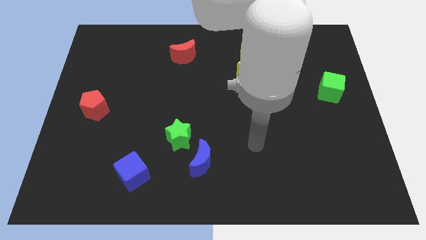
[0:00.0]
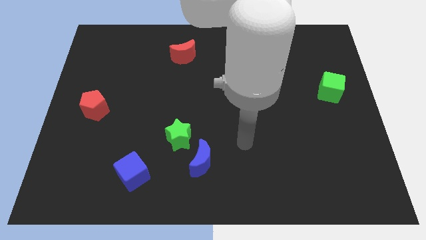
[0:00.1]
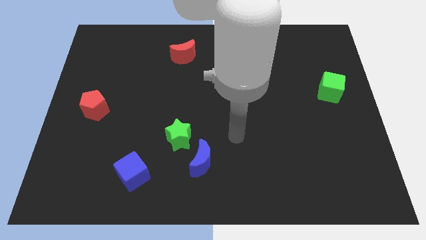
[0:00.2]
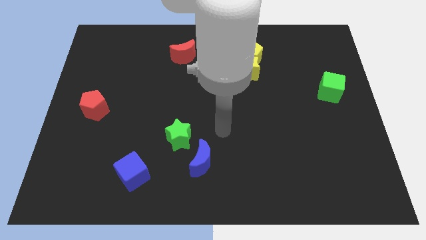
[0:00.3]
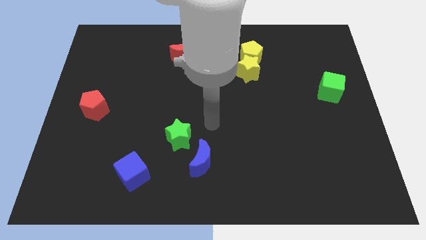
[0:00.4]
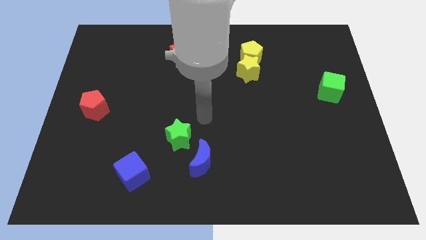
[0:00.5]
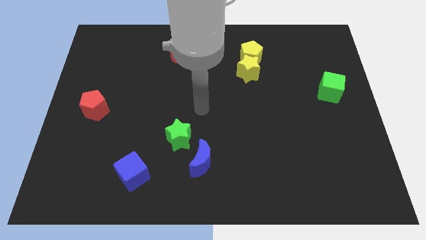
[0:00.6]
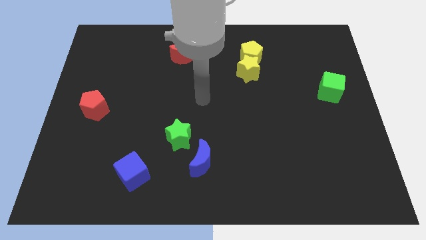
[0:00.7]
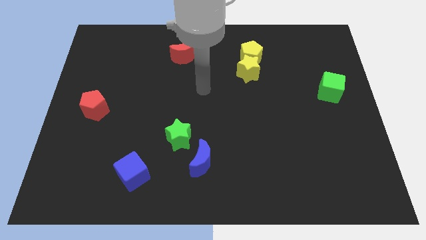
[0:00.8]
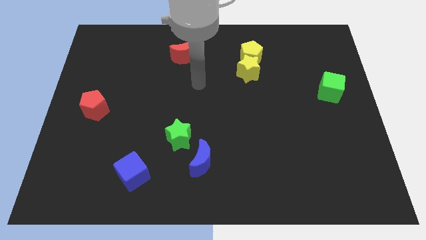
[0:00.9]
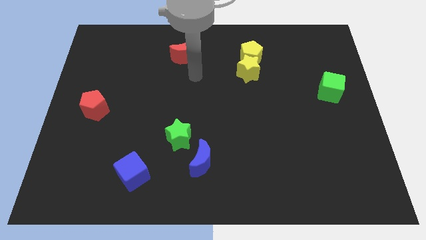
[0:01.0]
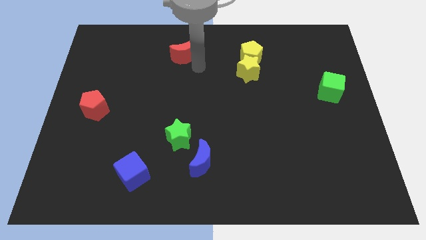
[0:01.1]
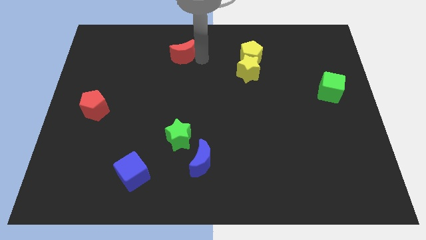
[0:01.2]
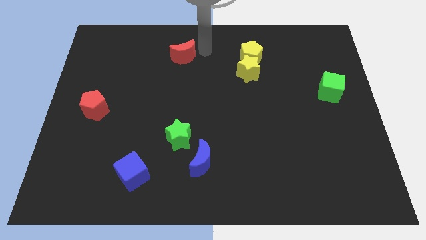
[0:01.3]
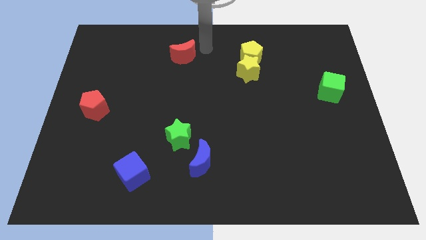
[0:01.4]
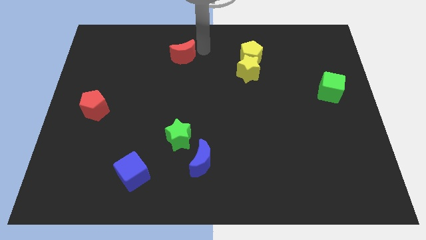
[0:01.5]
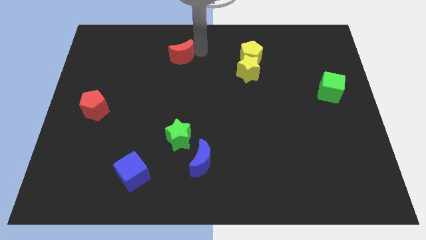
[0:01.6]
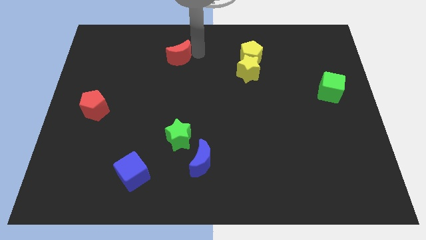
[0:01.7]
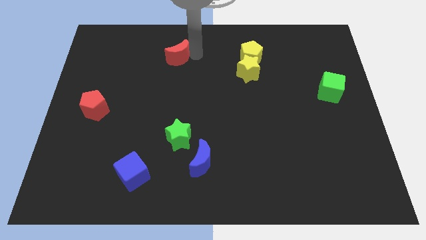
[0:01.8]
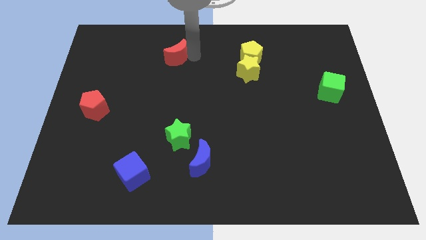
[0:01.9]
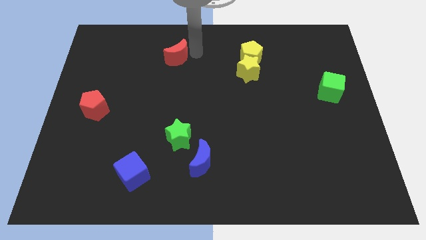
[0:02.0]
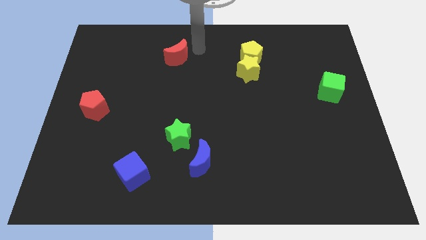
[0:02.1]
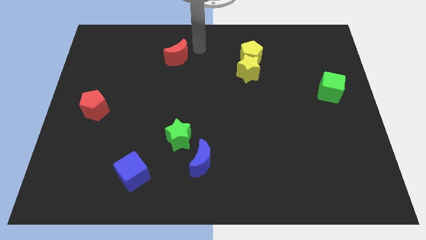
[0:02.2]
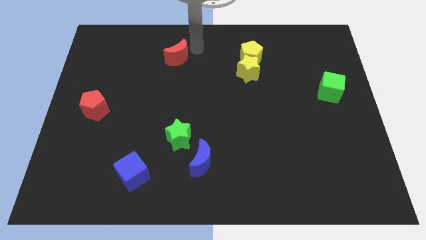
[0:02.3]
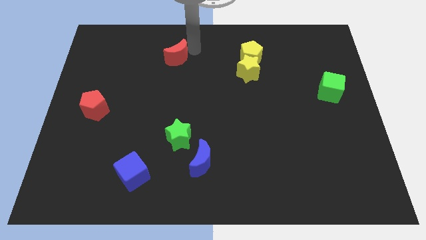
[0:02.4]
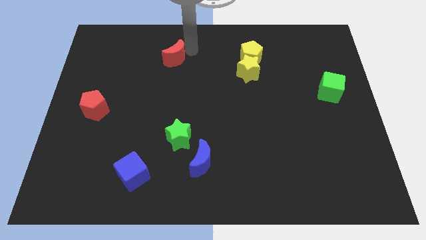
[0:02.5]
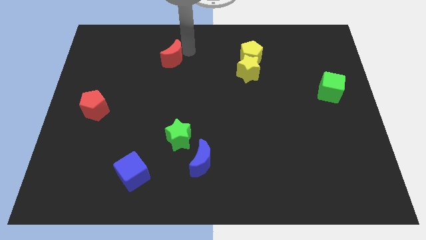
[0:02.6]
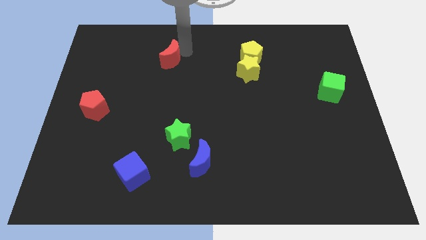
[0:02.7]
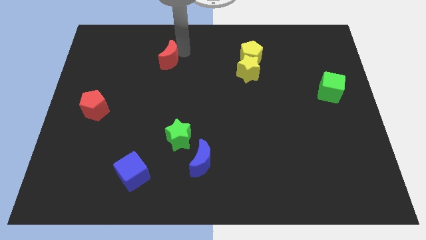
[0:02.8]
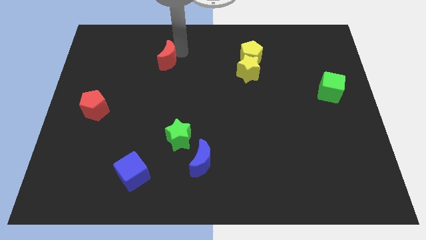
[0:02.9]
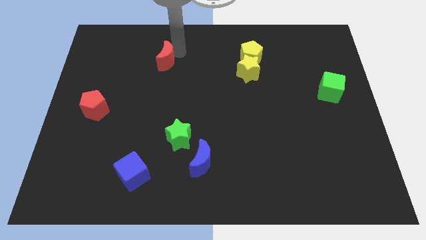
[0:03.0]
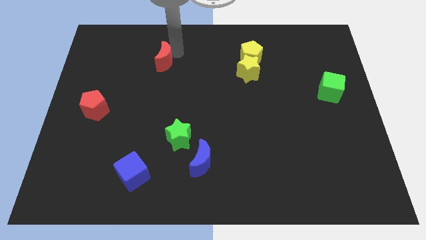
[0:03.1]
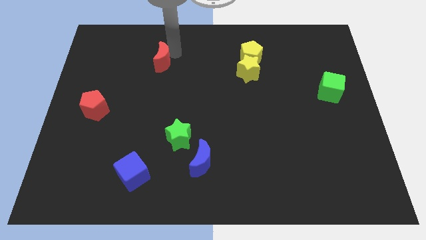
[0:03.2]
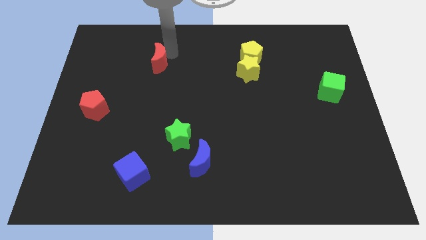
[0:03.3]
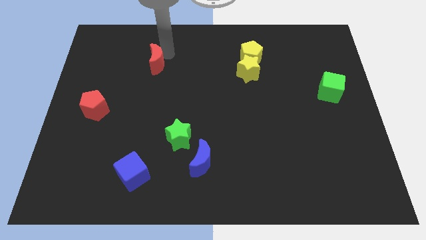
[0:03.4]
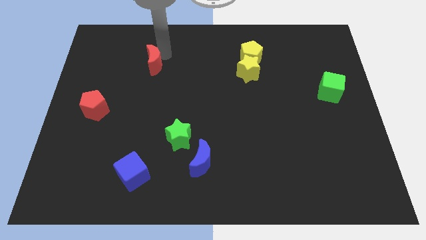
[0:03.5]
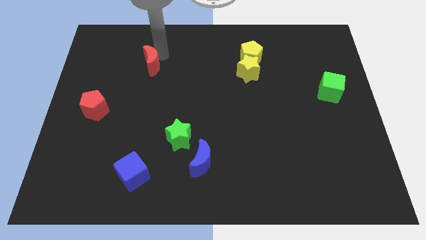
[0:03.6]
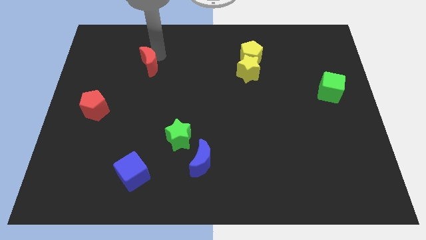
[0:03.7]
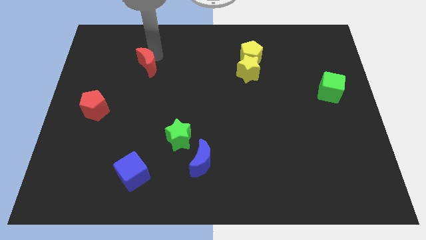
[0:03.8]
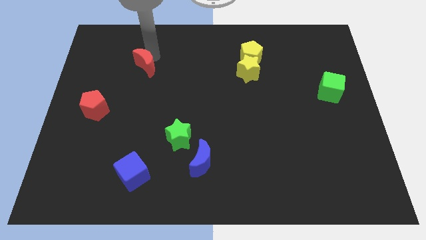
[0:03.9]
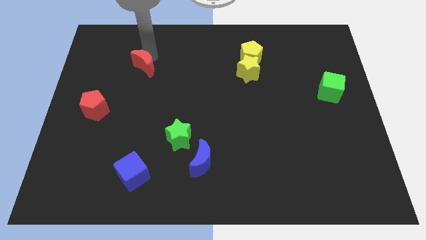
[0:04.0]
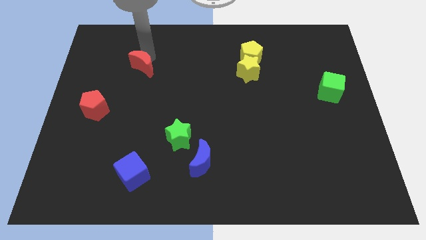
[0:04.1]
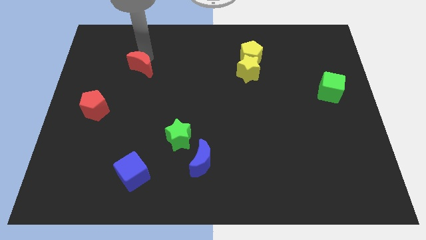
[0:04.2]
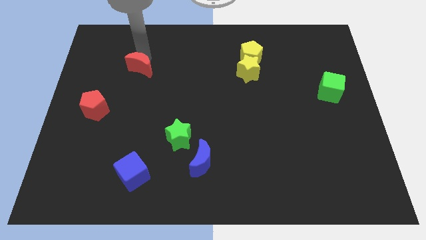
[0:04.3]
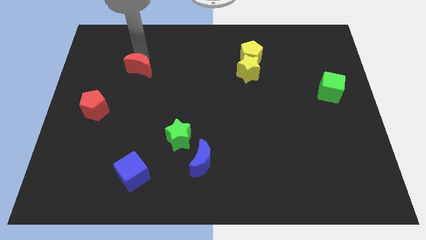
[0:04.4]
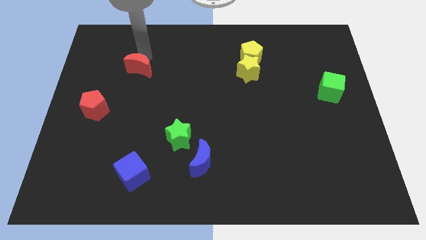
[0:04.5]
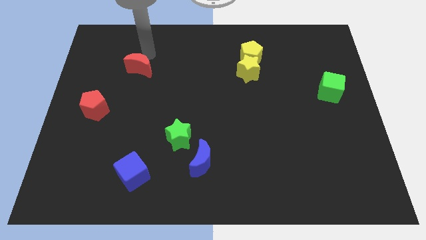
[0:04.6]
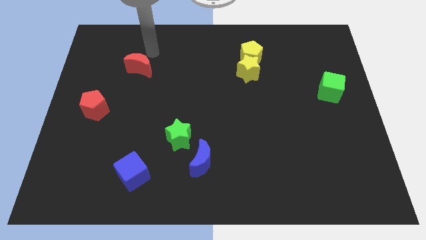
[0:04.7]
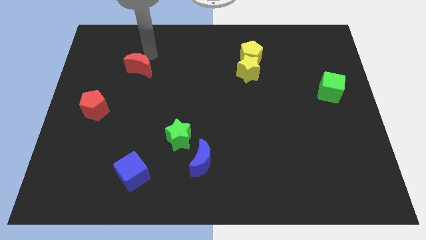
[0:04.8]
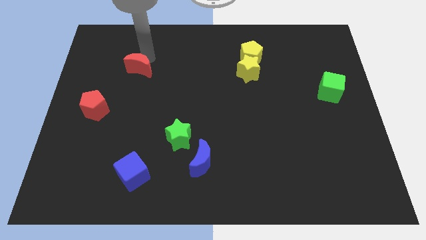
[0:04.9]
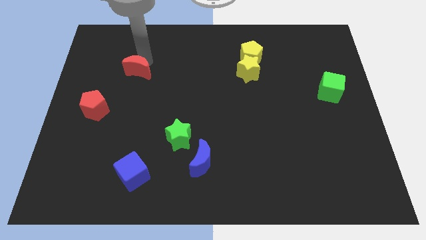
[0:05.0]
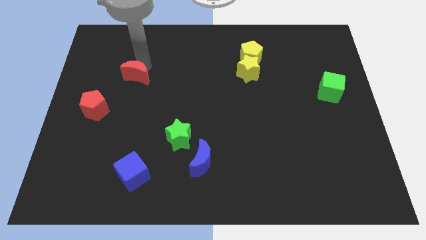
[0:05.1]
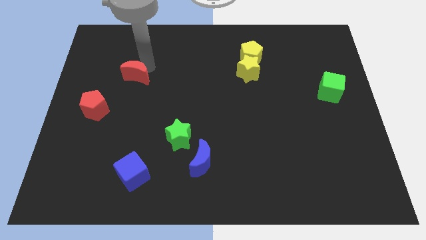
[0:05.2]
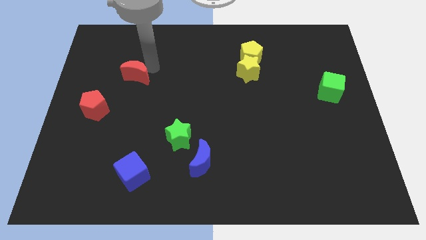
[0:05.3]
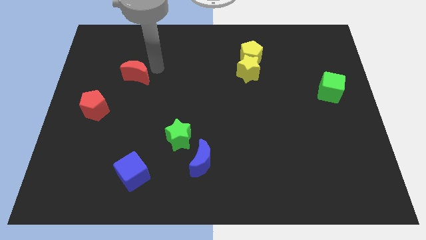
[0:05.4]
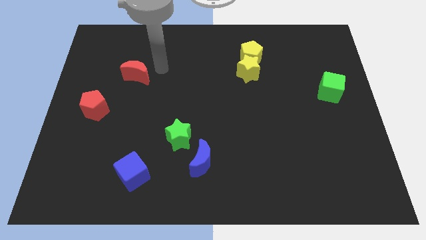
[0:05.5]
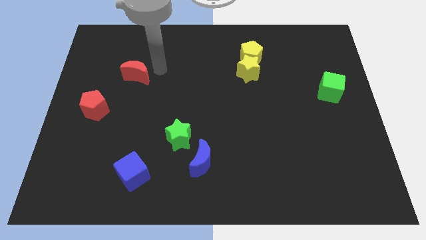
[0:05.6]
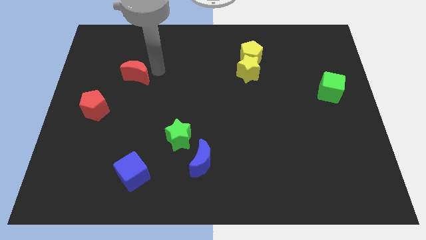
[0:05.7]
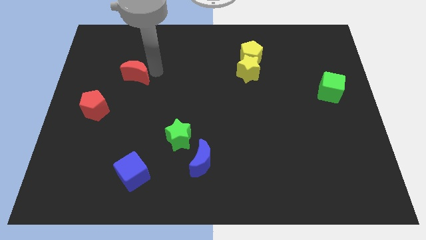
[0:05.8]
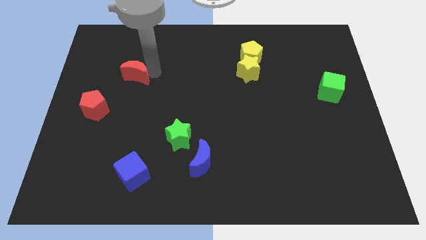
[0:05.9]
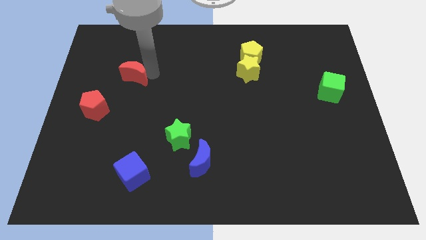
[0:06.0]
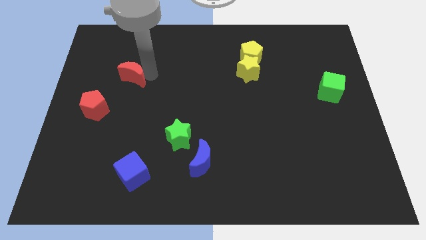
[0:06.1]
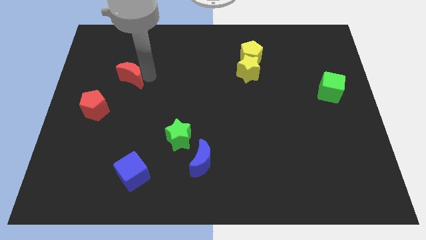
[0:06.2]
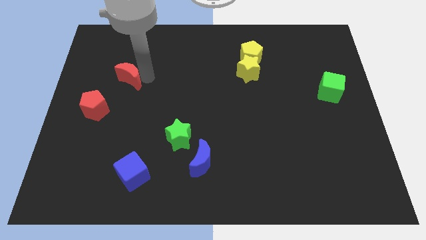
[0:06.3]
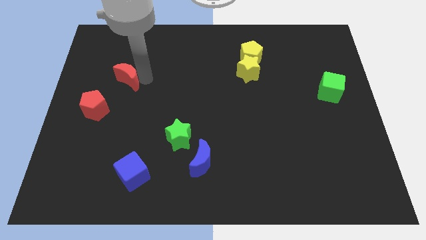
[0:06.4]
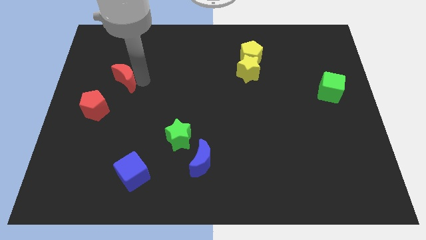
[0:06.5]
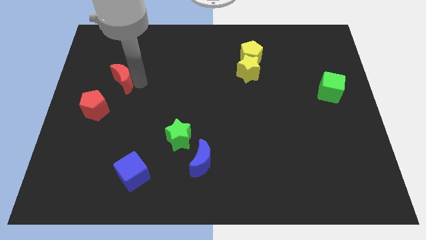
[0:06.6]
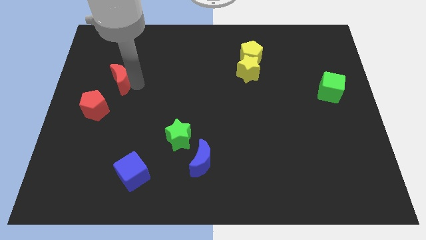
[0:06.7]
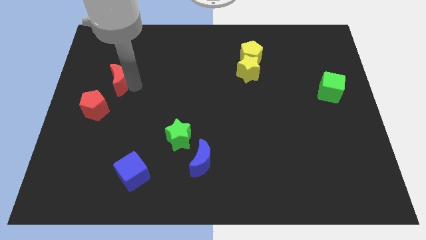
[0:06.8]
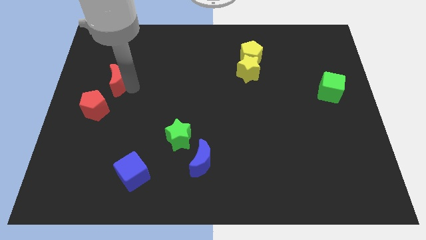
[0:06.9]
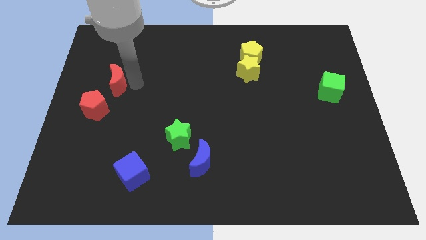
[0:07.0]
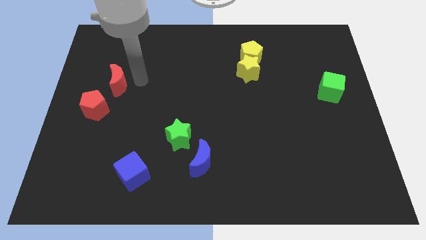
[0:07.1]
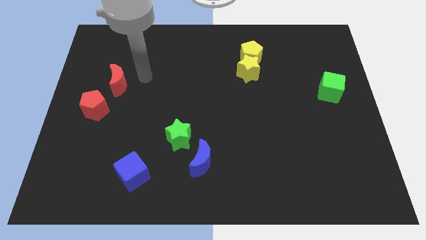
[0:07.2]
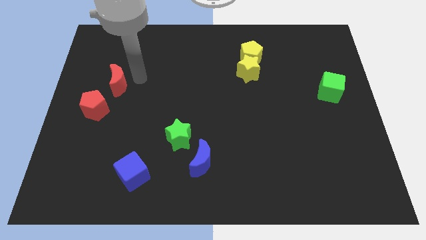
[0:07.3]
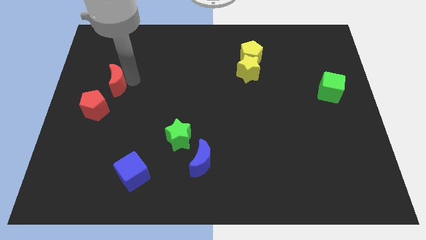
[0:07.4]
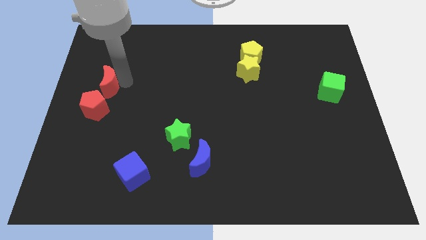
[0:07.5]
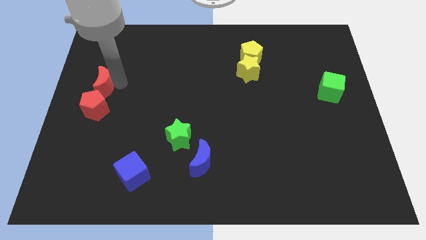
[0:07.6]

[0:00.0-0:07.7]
move the red moon to the left side
